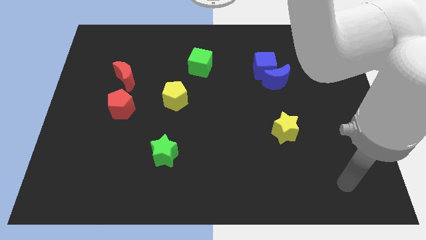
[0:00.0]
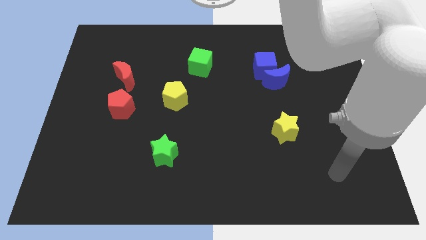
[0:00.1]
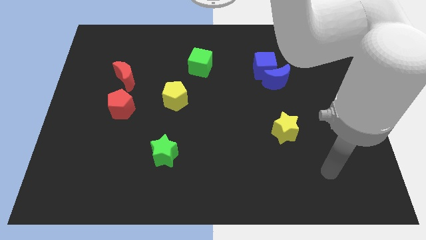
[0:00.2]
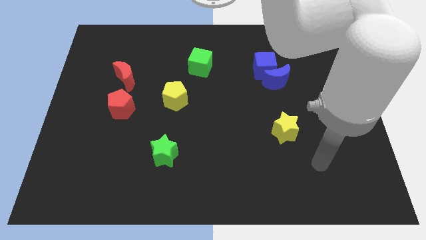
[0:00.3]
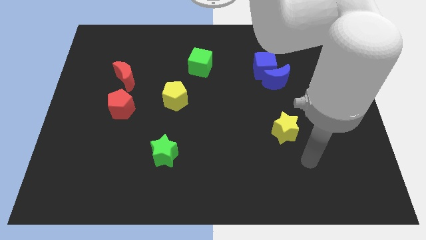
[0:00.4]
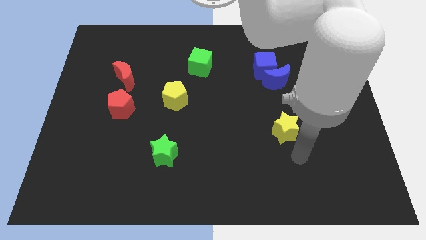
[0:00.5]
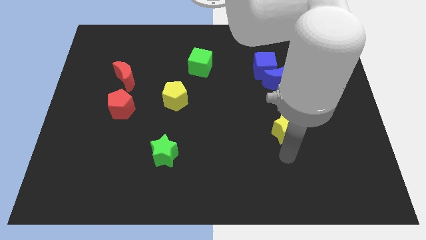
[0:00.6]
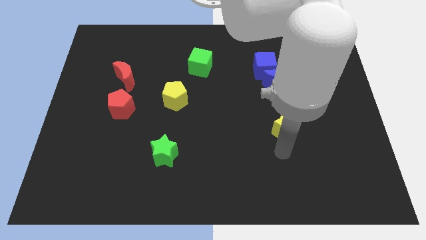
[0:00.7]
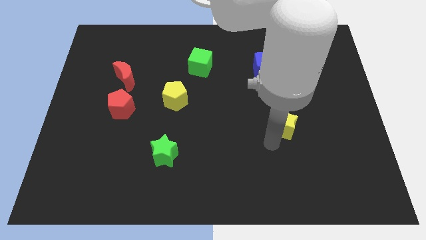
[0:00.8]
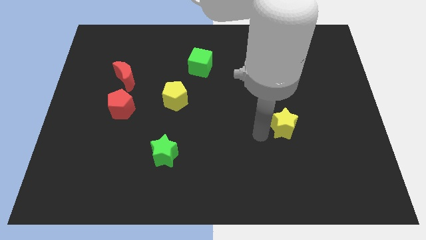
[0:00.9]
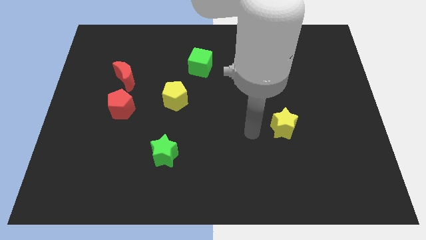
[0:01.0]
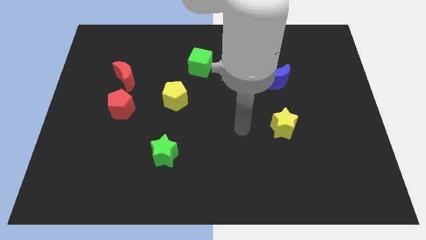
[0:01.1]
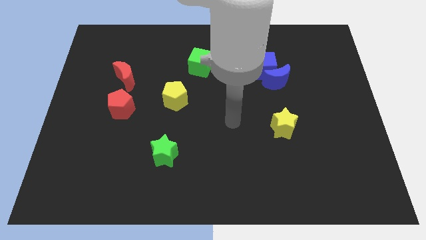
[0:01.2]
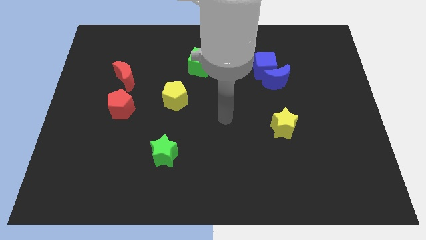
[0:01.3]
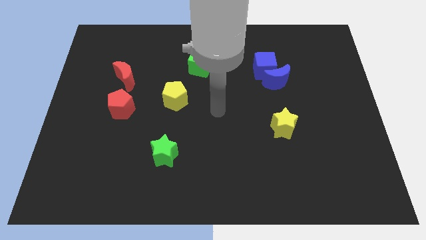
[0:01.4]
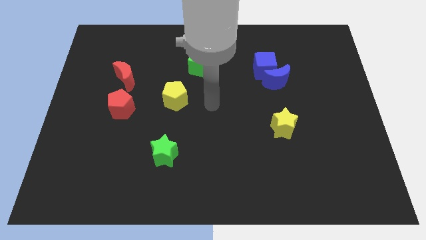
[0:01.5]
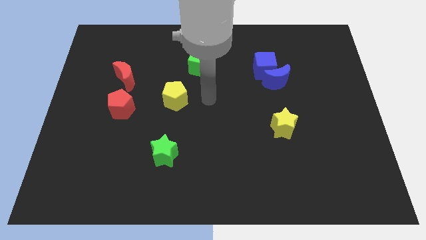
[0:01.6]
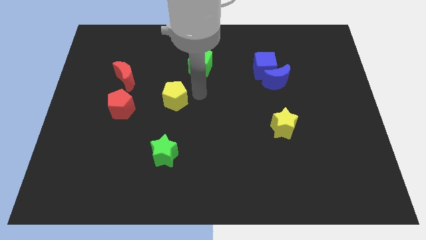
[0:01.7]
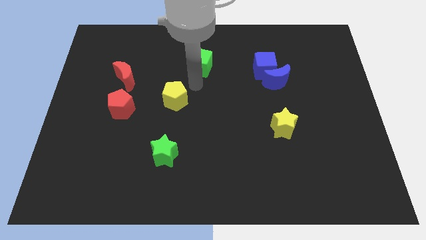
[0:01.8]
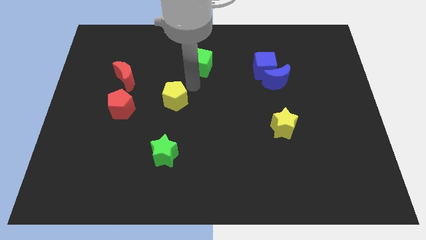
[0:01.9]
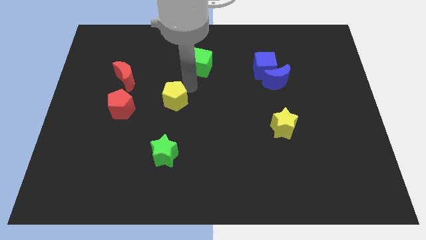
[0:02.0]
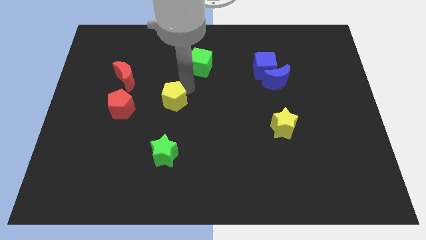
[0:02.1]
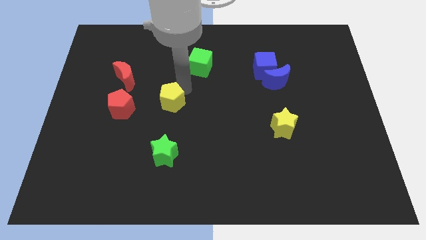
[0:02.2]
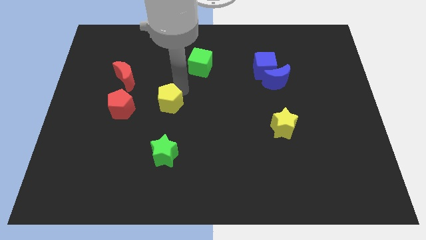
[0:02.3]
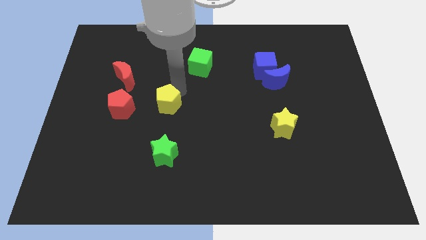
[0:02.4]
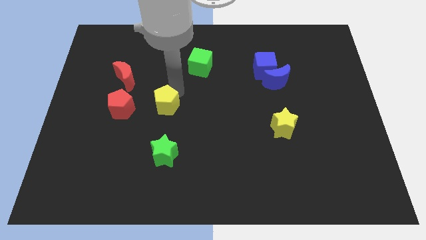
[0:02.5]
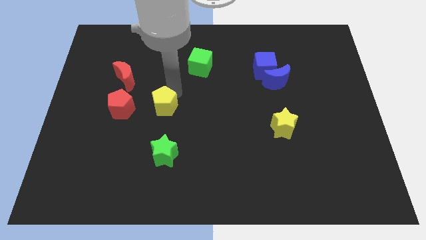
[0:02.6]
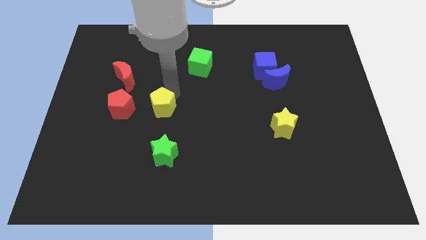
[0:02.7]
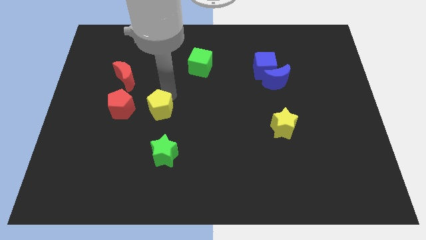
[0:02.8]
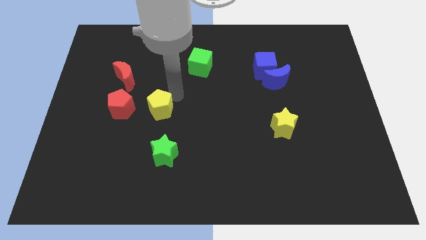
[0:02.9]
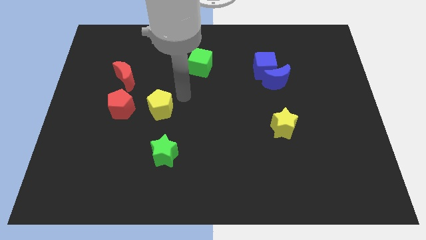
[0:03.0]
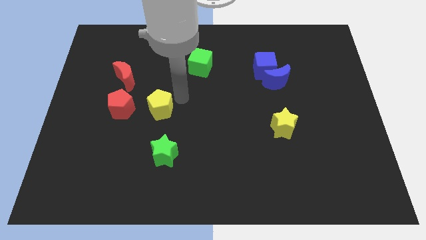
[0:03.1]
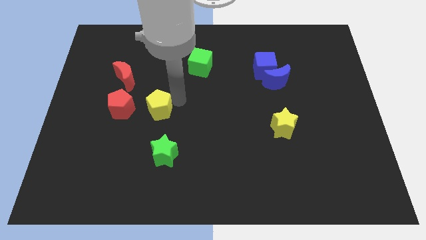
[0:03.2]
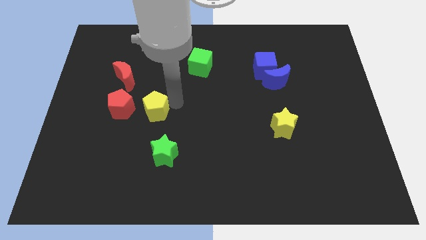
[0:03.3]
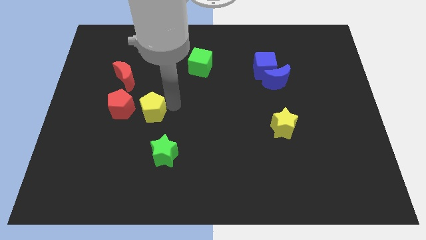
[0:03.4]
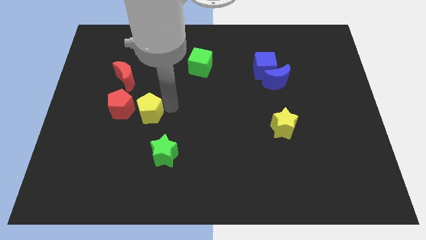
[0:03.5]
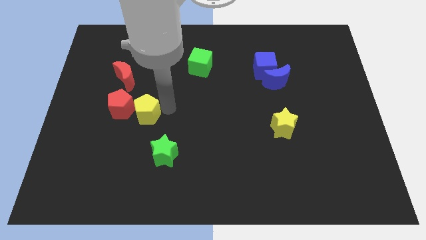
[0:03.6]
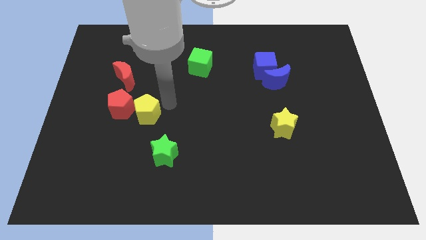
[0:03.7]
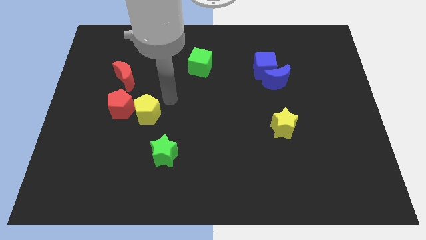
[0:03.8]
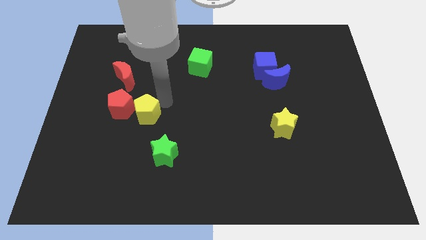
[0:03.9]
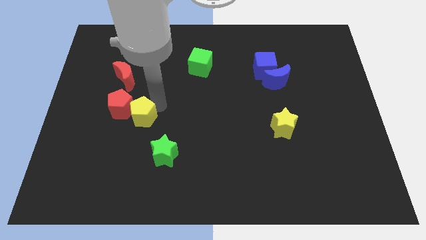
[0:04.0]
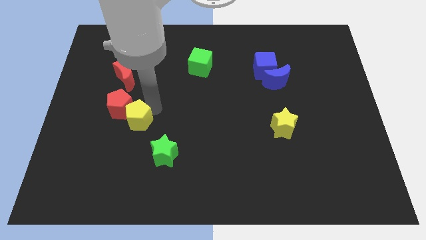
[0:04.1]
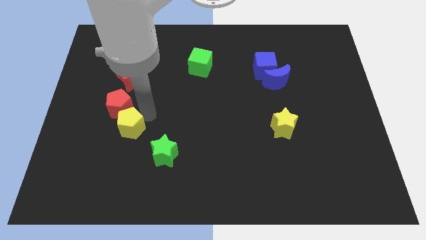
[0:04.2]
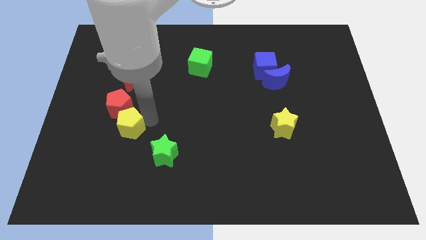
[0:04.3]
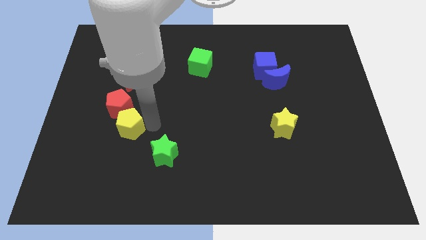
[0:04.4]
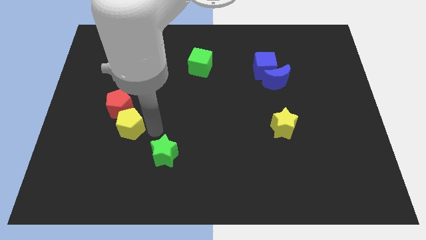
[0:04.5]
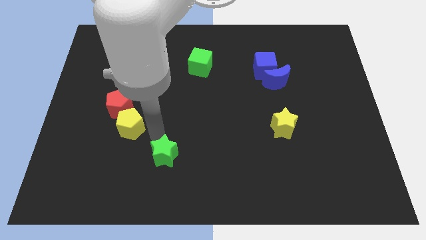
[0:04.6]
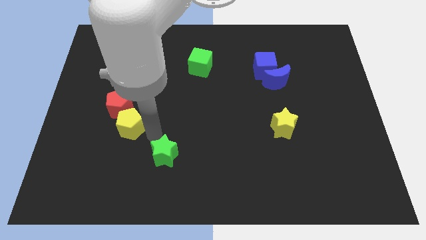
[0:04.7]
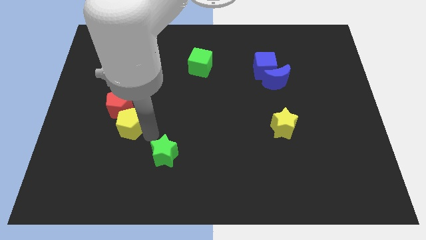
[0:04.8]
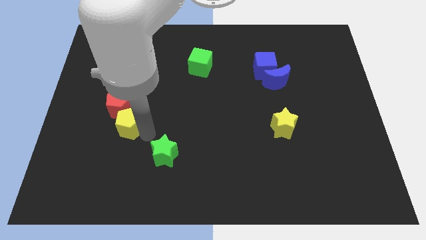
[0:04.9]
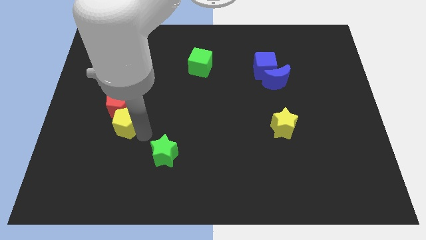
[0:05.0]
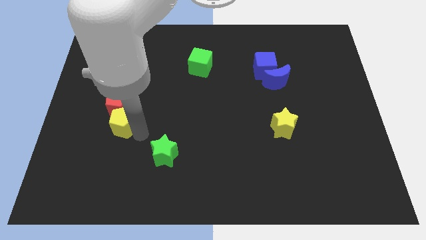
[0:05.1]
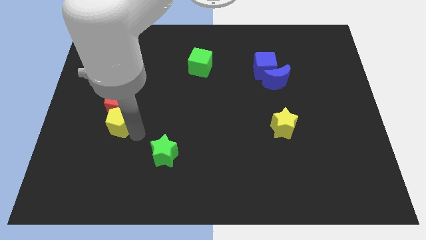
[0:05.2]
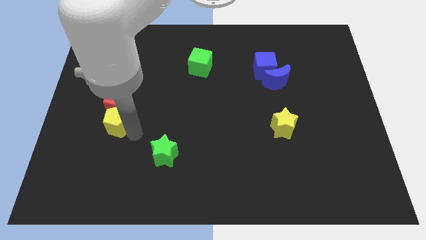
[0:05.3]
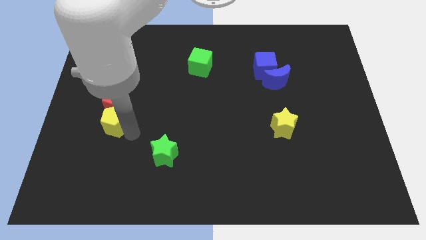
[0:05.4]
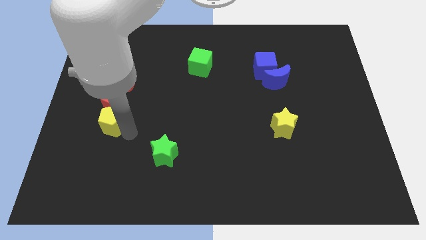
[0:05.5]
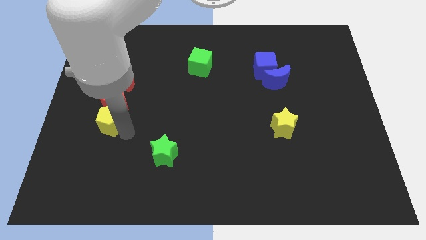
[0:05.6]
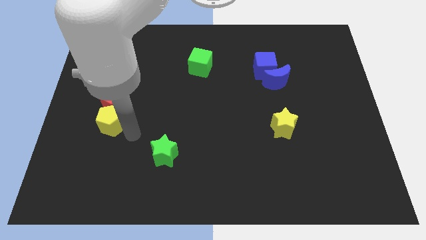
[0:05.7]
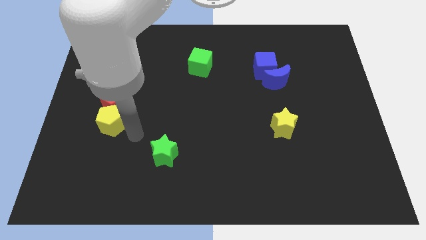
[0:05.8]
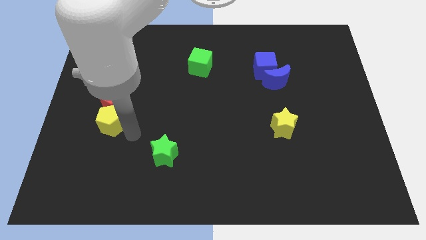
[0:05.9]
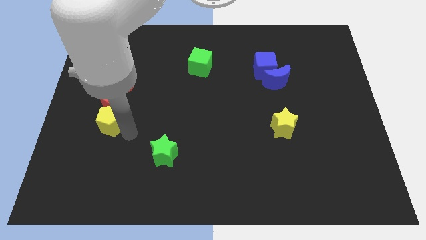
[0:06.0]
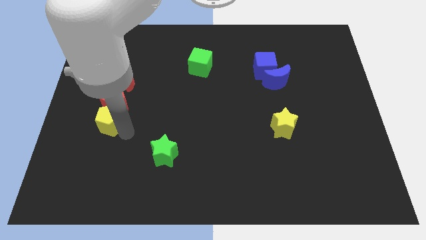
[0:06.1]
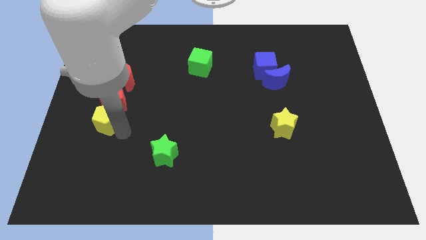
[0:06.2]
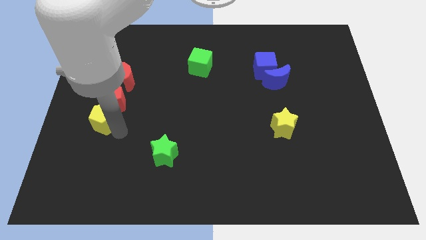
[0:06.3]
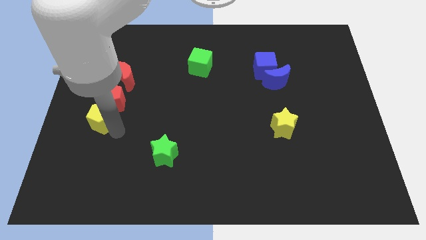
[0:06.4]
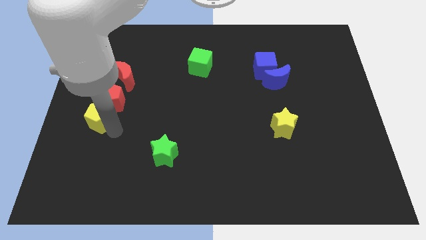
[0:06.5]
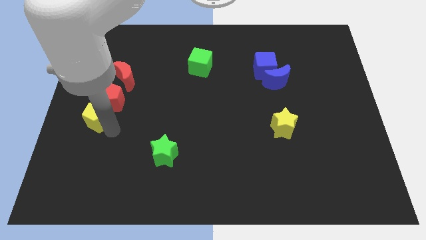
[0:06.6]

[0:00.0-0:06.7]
push the yellow pentagon to the center left
